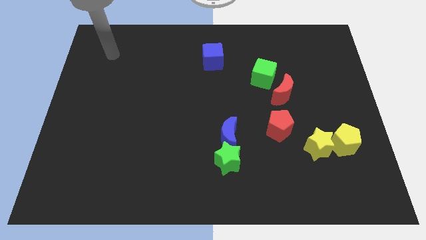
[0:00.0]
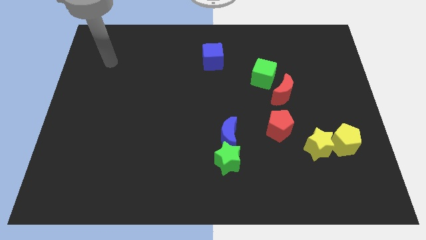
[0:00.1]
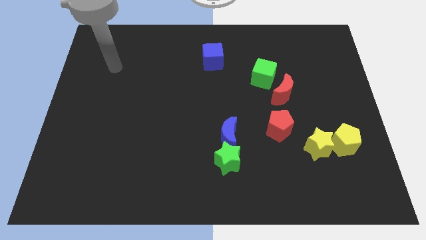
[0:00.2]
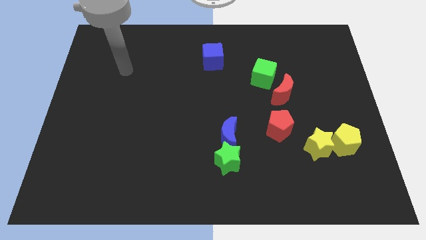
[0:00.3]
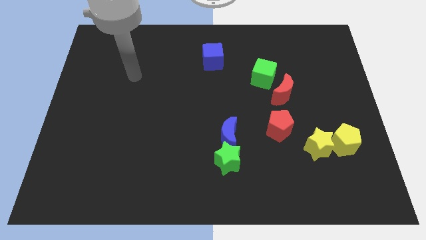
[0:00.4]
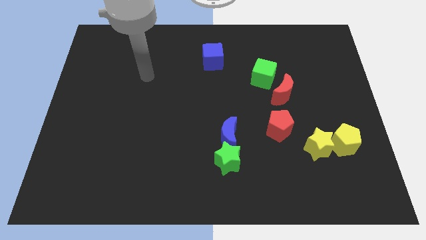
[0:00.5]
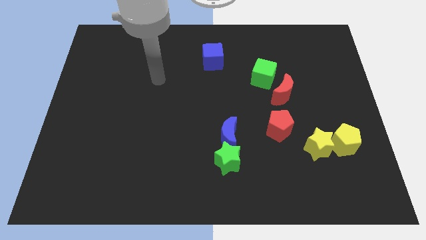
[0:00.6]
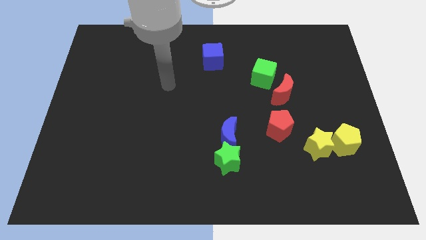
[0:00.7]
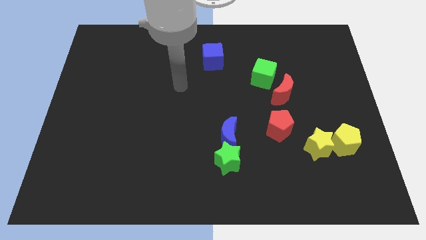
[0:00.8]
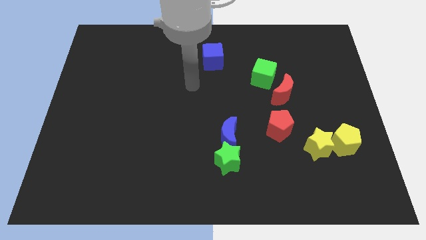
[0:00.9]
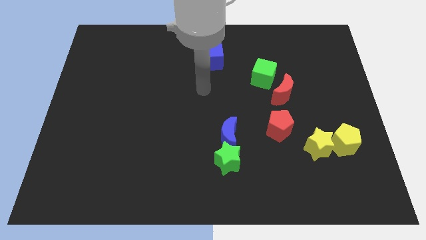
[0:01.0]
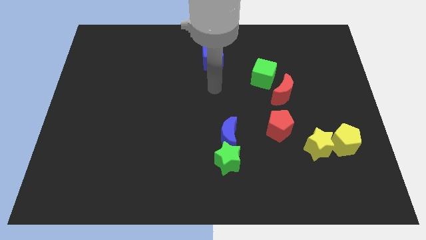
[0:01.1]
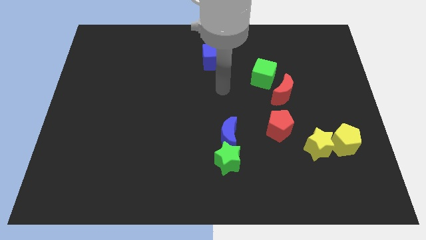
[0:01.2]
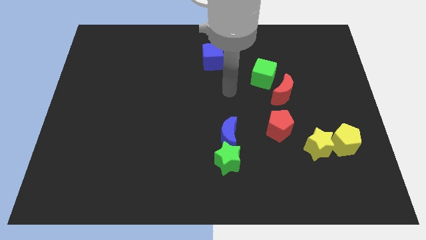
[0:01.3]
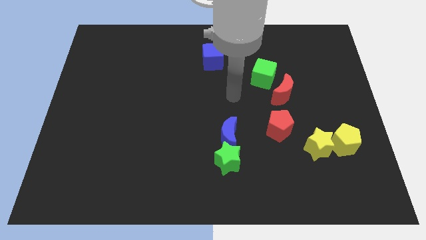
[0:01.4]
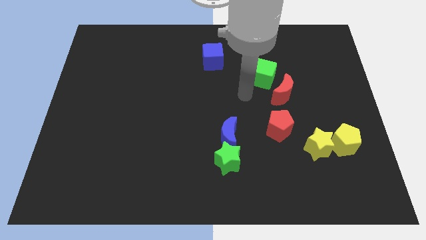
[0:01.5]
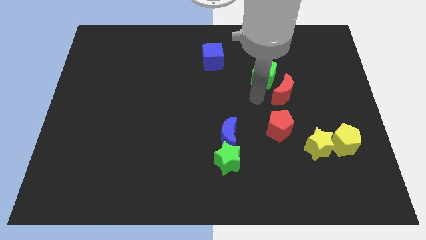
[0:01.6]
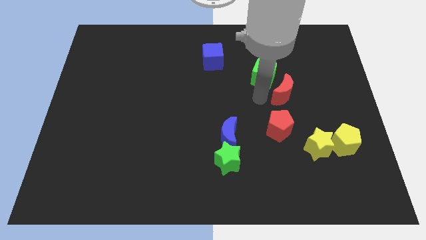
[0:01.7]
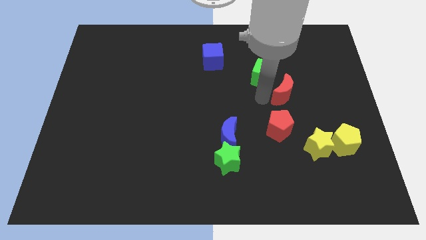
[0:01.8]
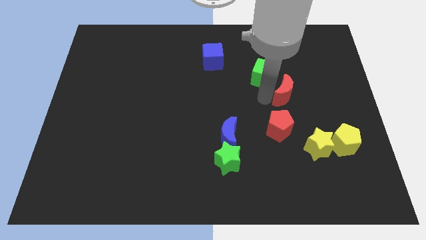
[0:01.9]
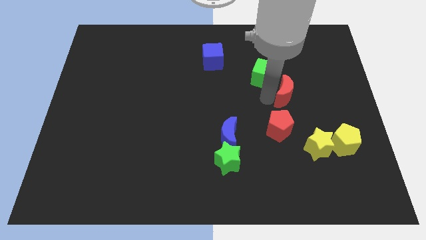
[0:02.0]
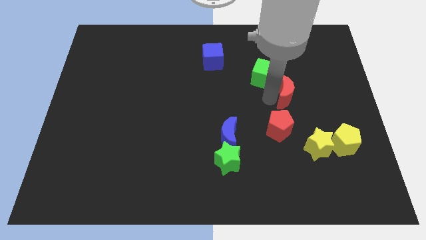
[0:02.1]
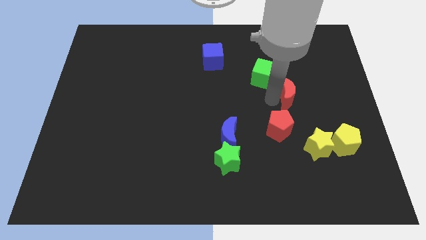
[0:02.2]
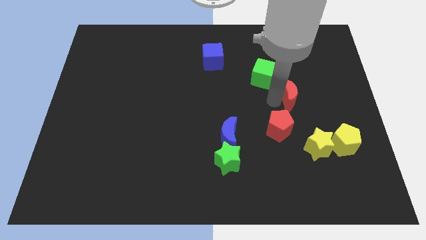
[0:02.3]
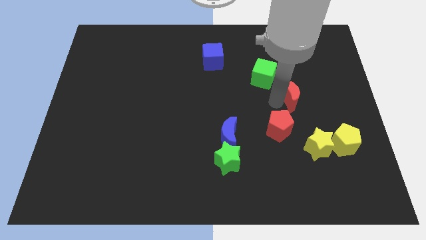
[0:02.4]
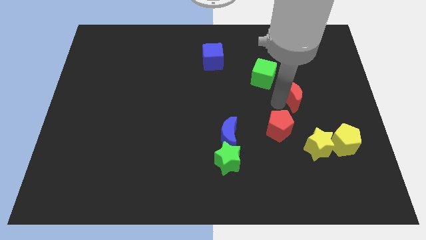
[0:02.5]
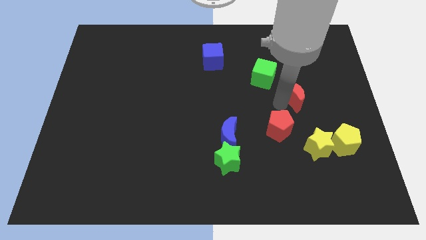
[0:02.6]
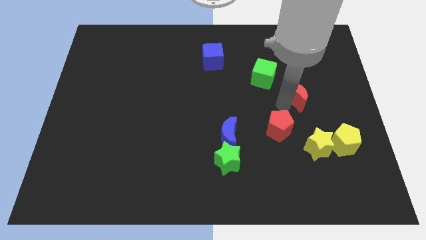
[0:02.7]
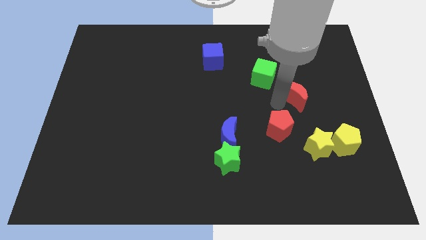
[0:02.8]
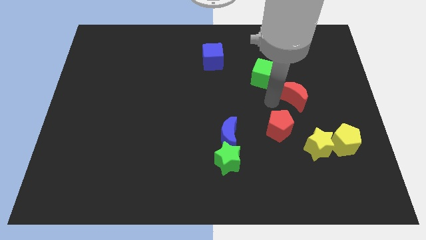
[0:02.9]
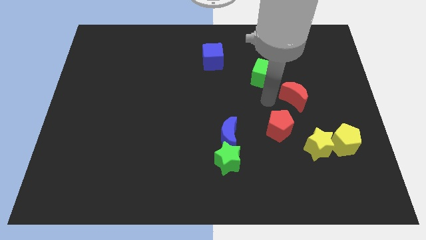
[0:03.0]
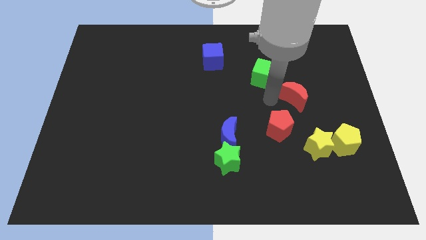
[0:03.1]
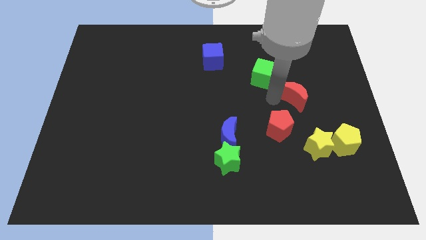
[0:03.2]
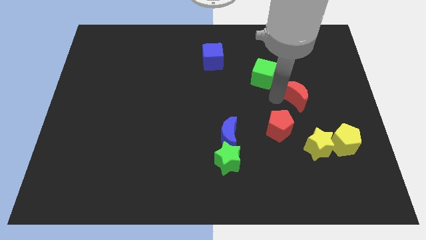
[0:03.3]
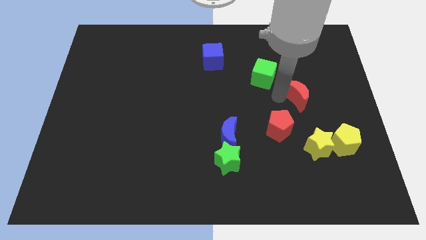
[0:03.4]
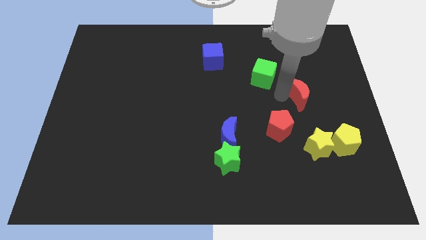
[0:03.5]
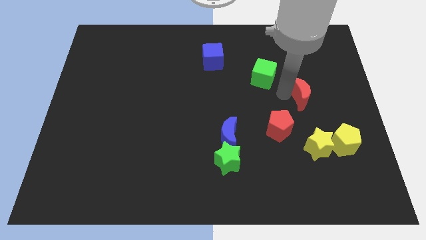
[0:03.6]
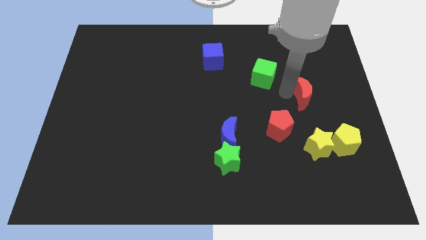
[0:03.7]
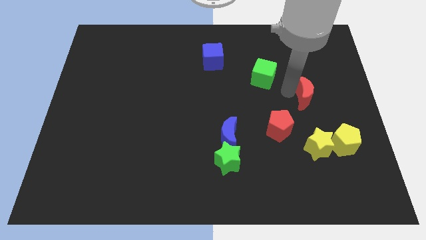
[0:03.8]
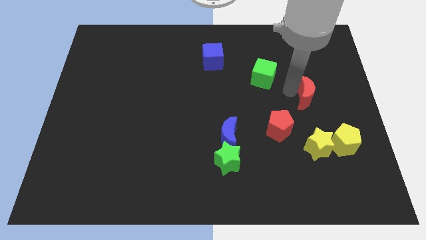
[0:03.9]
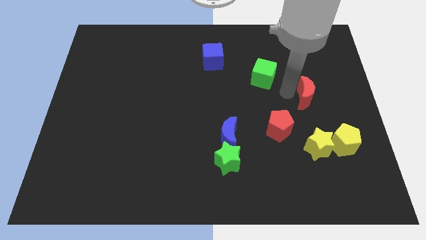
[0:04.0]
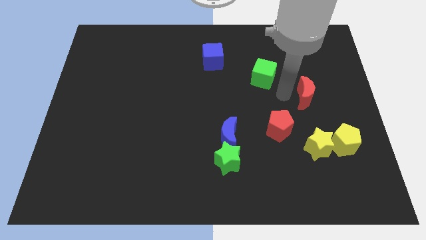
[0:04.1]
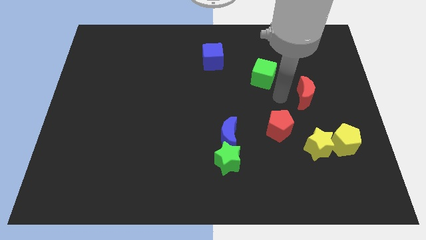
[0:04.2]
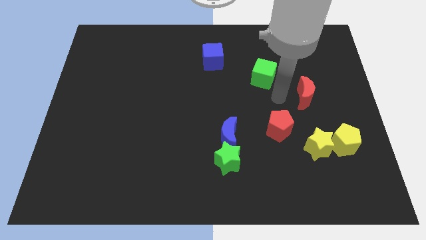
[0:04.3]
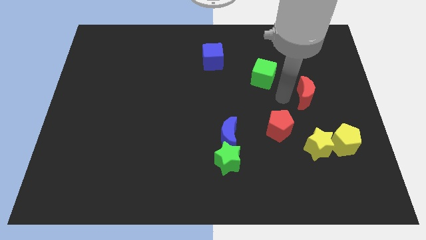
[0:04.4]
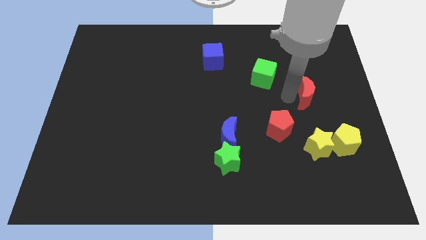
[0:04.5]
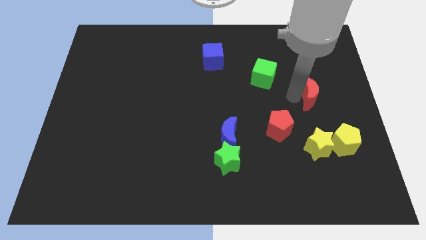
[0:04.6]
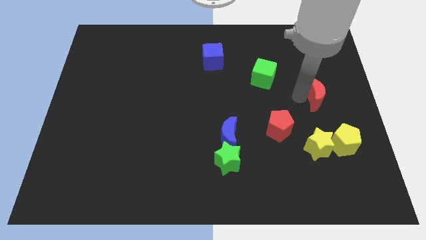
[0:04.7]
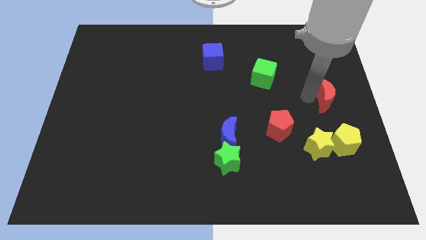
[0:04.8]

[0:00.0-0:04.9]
move the red moon to the right side of the board

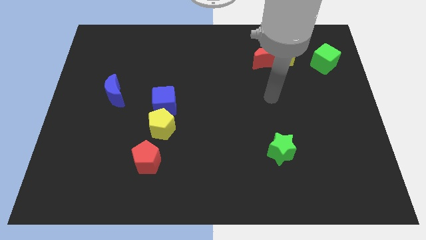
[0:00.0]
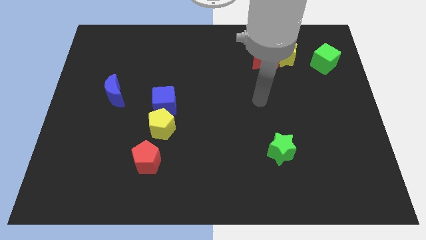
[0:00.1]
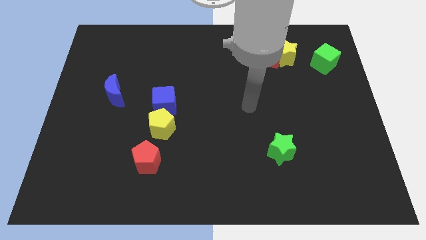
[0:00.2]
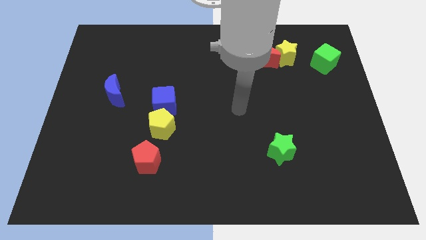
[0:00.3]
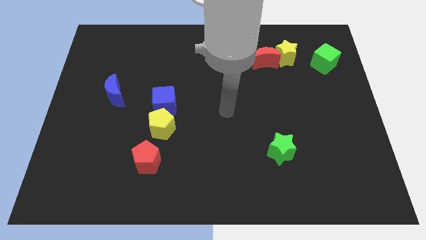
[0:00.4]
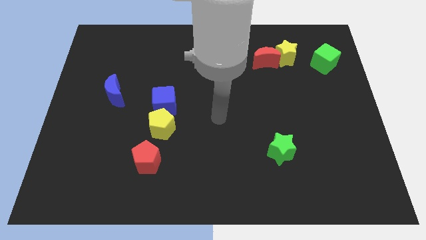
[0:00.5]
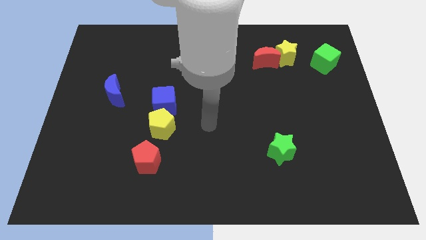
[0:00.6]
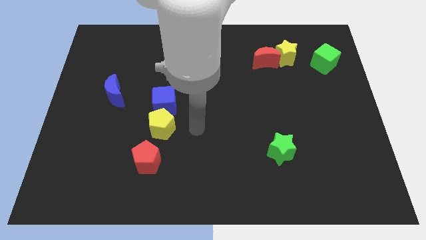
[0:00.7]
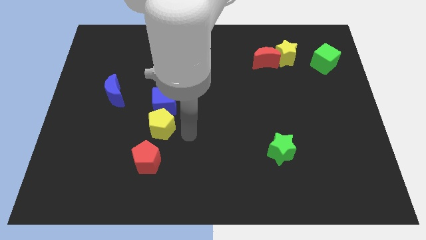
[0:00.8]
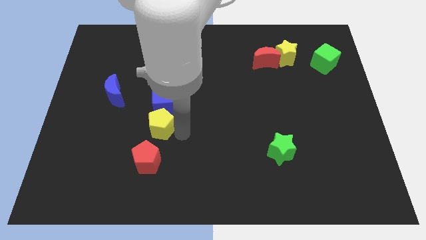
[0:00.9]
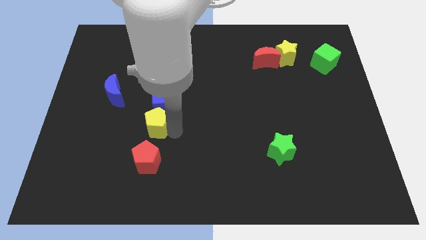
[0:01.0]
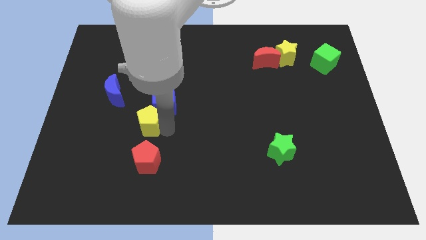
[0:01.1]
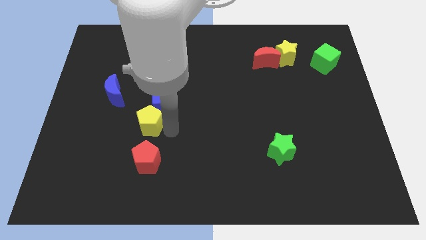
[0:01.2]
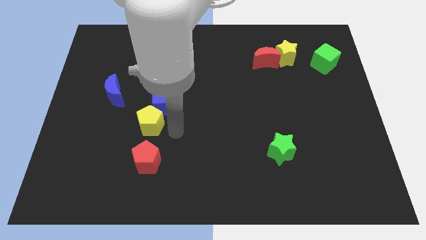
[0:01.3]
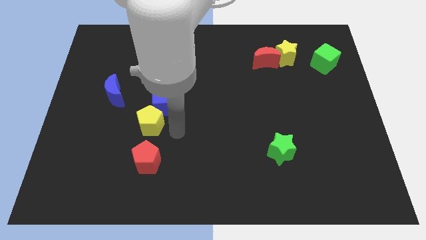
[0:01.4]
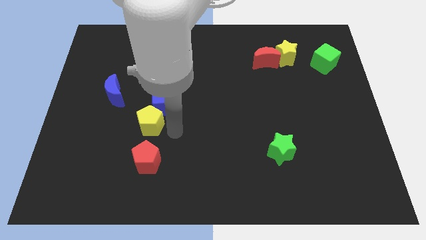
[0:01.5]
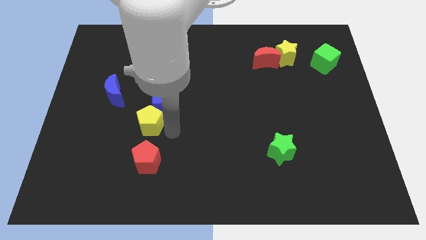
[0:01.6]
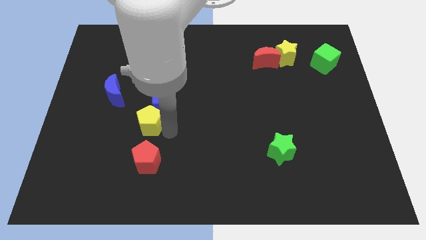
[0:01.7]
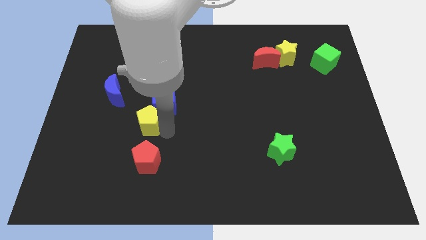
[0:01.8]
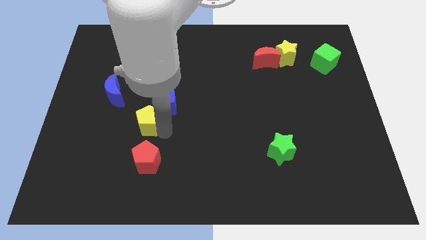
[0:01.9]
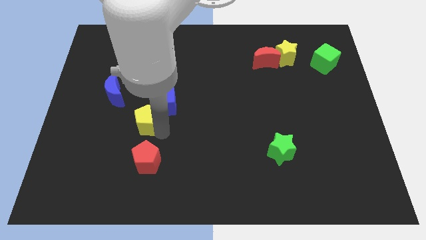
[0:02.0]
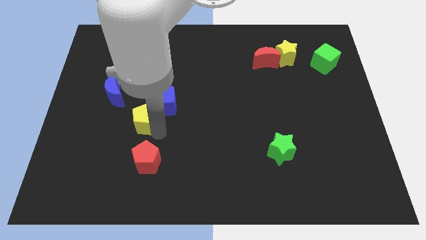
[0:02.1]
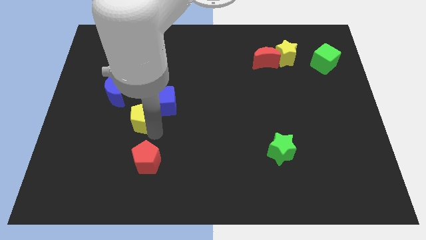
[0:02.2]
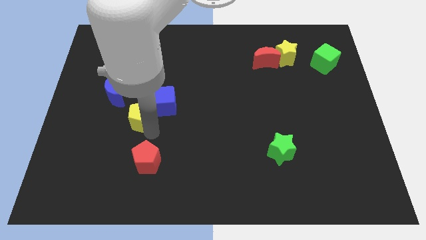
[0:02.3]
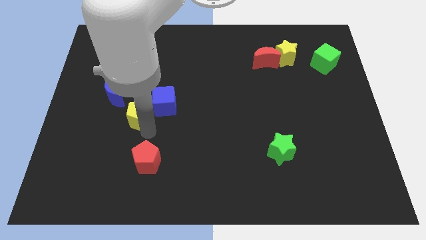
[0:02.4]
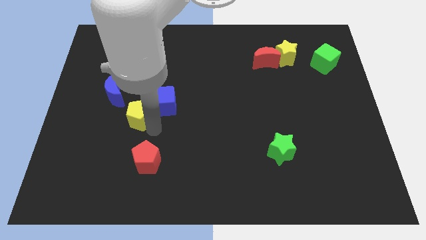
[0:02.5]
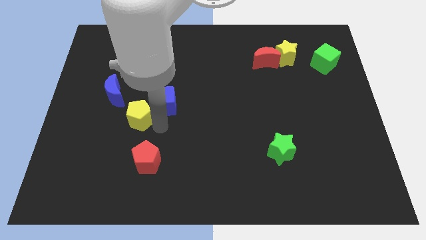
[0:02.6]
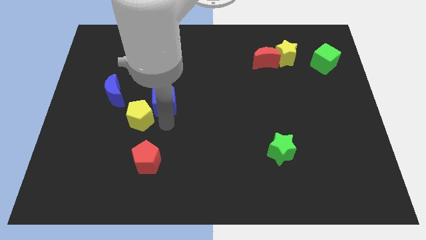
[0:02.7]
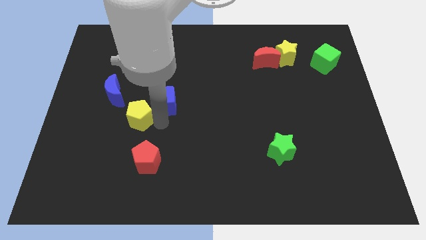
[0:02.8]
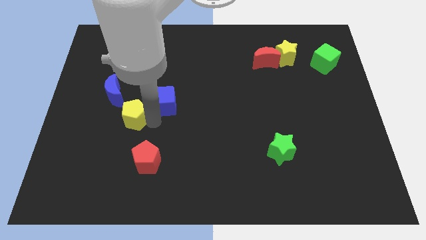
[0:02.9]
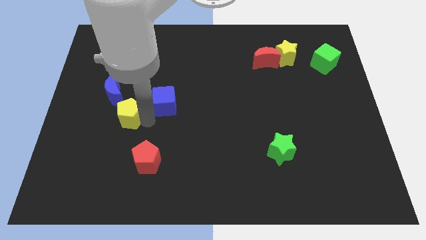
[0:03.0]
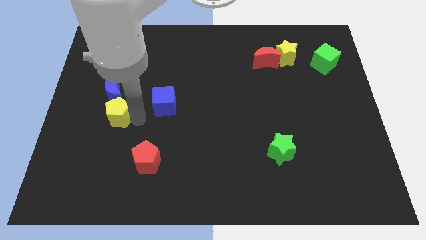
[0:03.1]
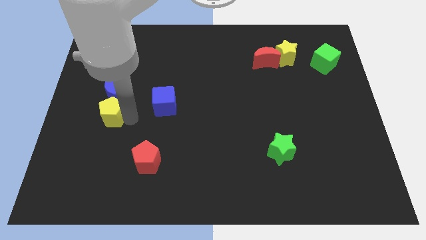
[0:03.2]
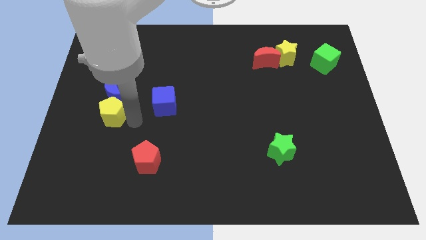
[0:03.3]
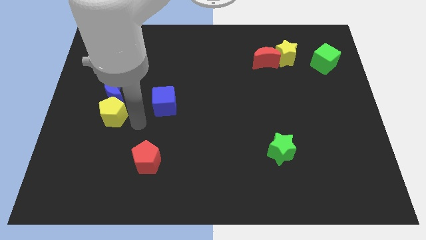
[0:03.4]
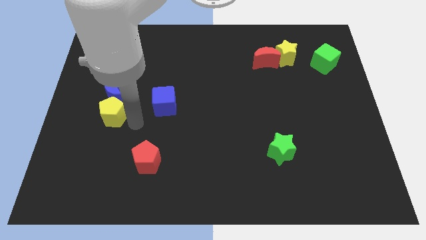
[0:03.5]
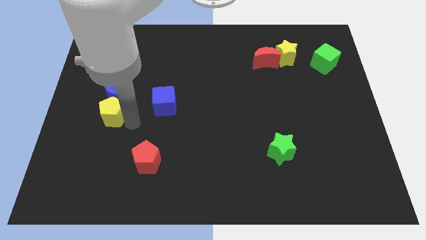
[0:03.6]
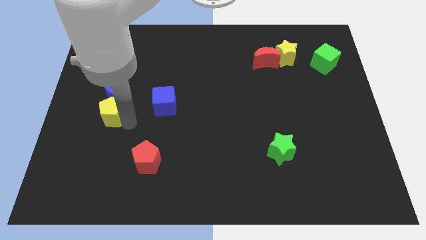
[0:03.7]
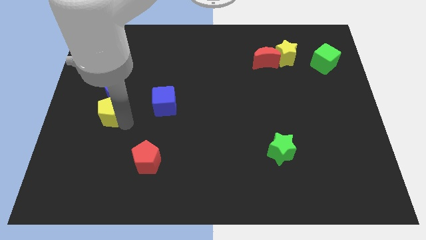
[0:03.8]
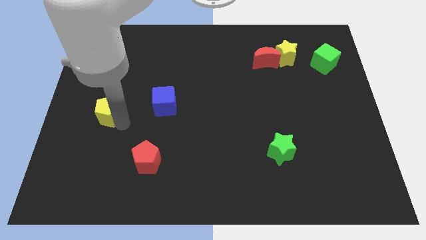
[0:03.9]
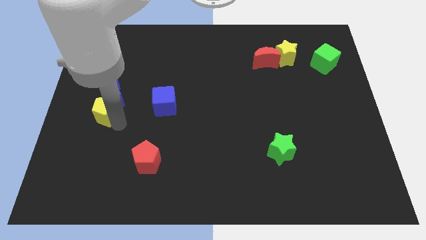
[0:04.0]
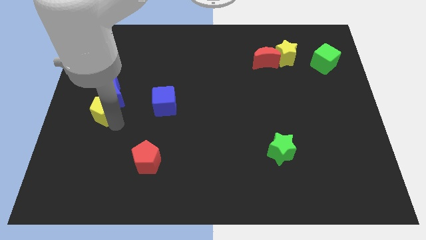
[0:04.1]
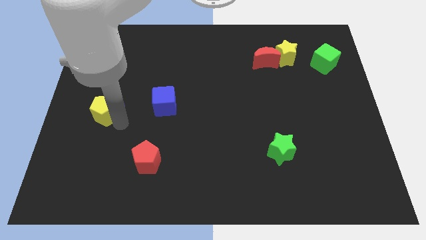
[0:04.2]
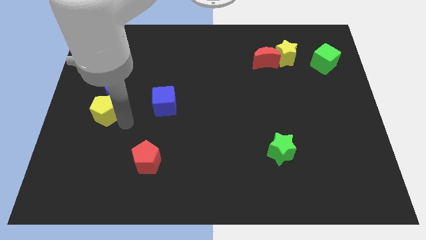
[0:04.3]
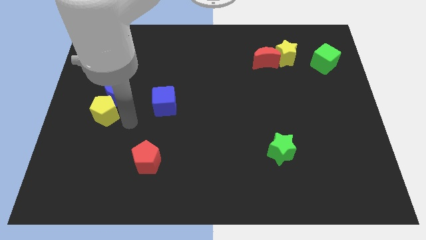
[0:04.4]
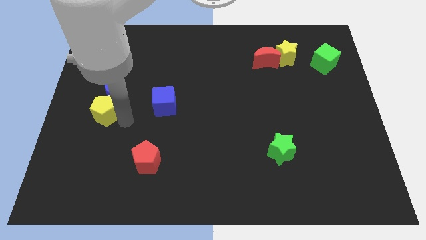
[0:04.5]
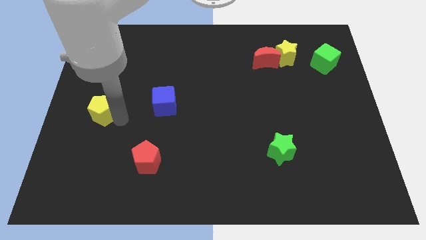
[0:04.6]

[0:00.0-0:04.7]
move the yellow pentagon to the left side of the board
